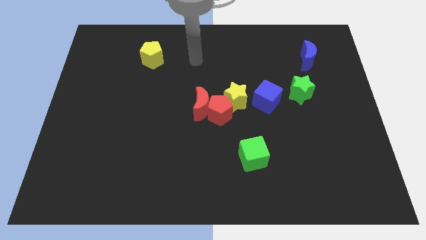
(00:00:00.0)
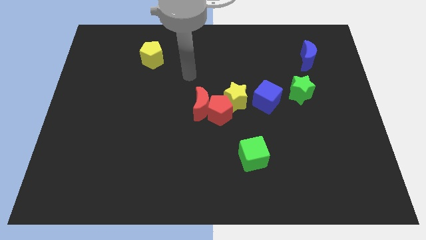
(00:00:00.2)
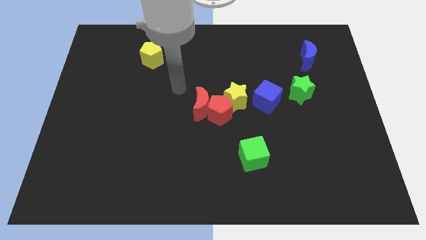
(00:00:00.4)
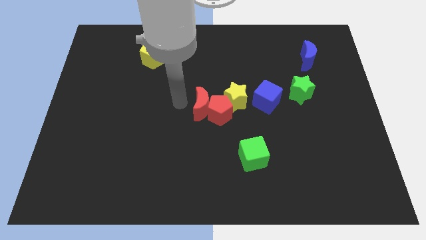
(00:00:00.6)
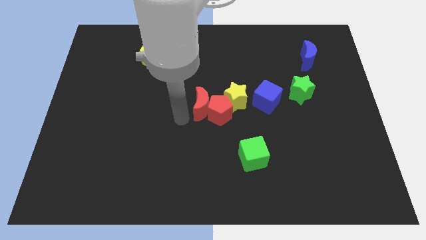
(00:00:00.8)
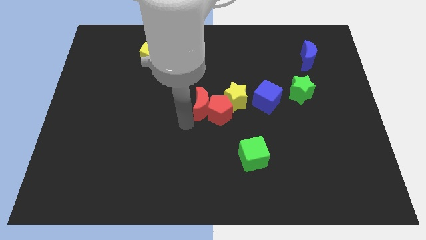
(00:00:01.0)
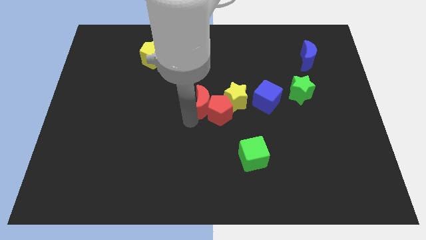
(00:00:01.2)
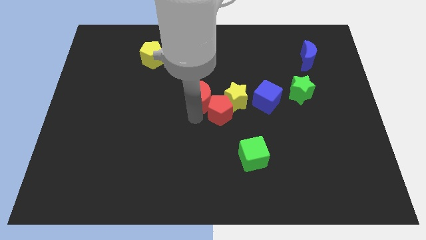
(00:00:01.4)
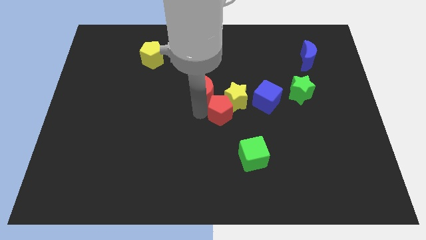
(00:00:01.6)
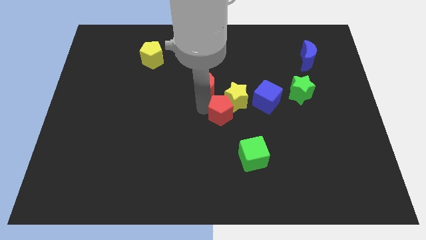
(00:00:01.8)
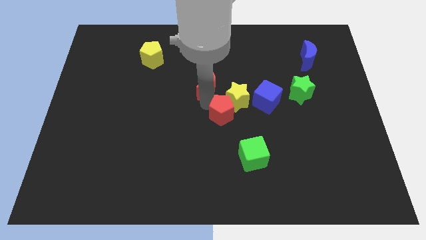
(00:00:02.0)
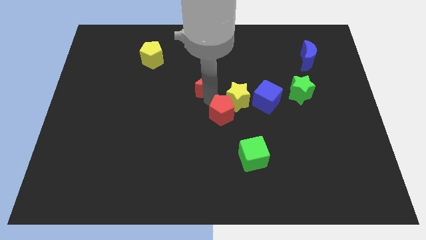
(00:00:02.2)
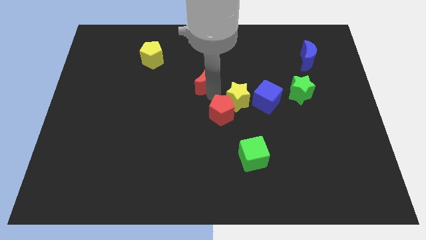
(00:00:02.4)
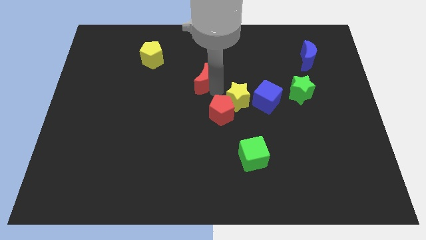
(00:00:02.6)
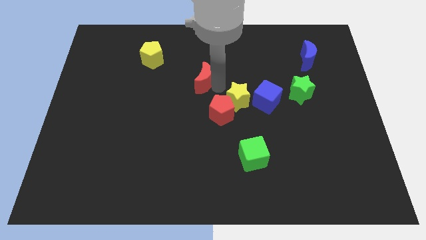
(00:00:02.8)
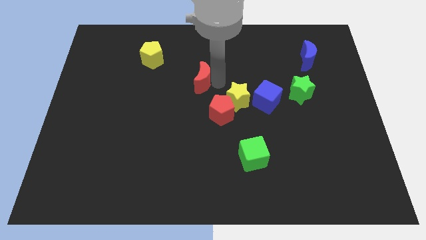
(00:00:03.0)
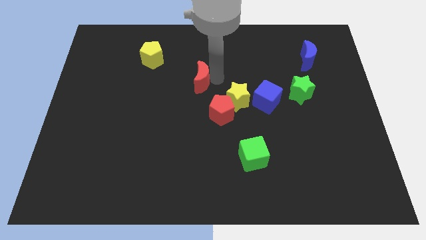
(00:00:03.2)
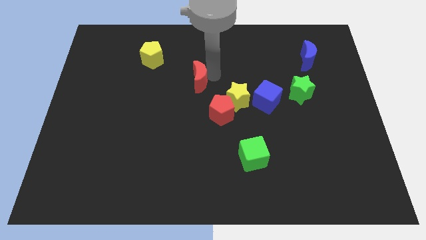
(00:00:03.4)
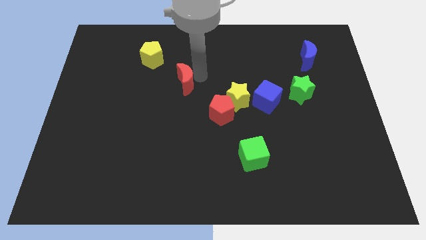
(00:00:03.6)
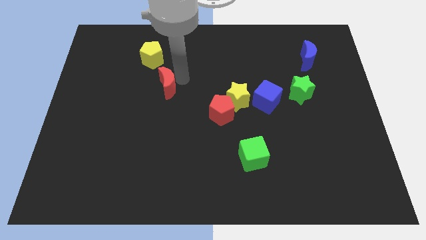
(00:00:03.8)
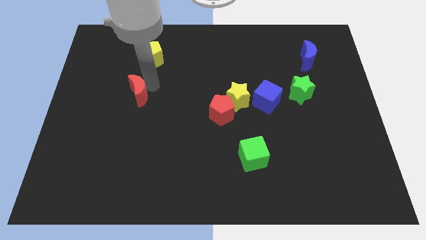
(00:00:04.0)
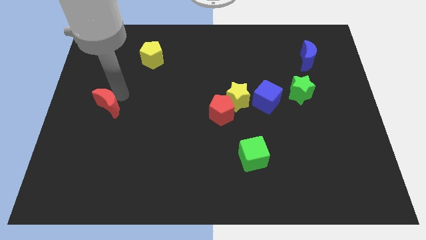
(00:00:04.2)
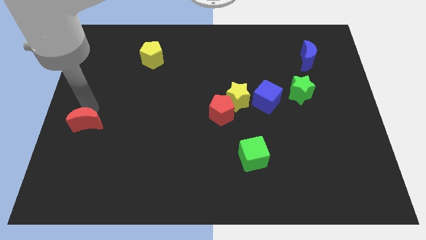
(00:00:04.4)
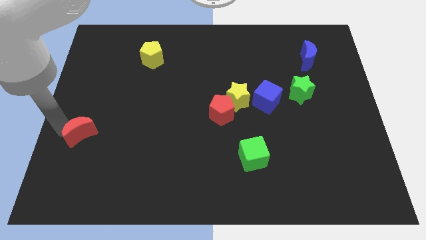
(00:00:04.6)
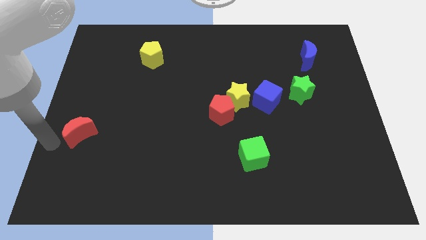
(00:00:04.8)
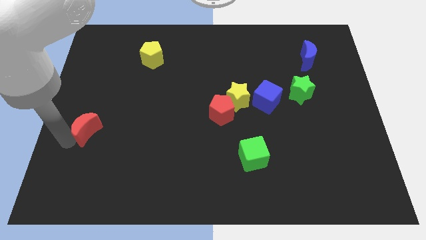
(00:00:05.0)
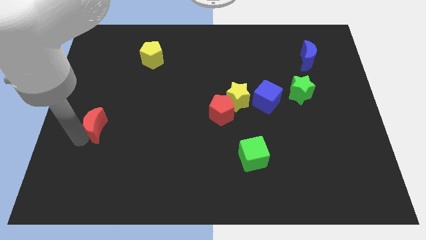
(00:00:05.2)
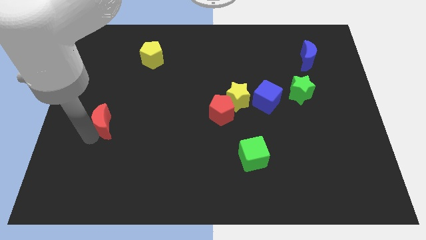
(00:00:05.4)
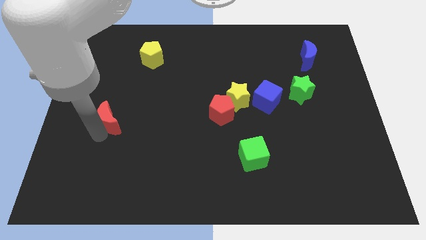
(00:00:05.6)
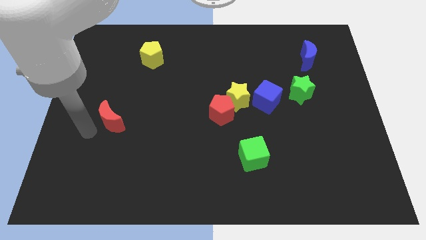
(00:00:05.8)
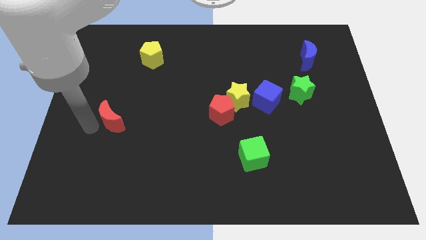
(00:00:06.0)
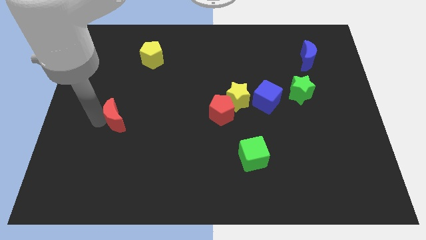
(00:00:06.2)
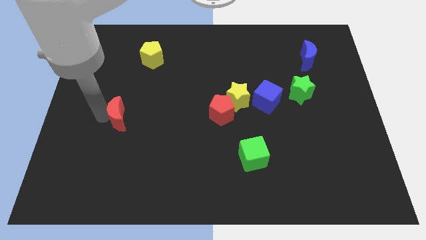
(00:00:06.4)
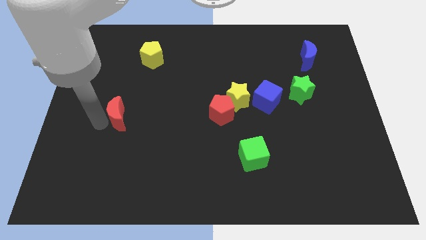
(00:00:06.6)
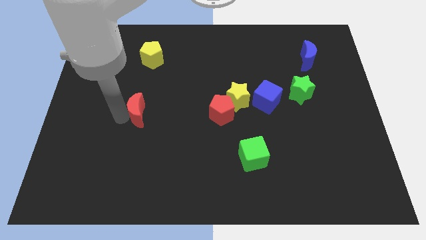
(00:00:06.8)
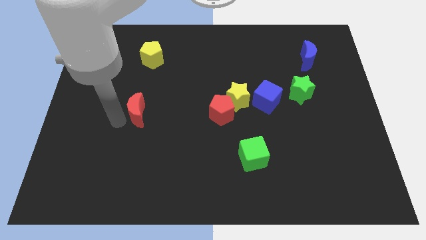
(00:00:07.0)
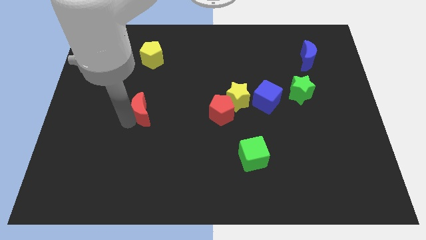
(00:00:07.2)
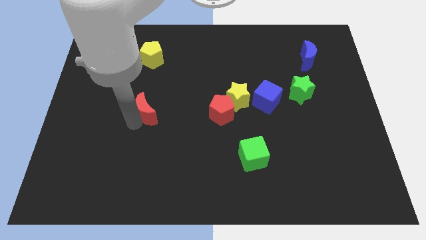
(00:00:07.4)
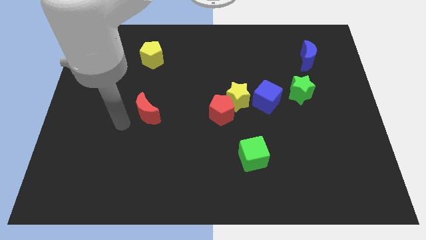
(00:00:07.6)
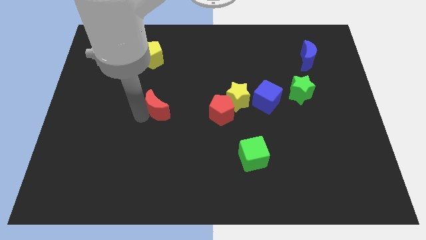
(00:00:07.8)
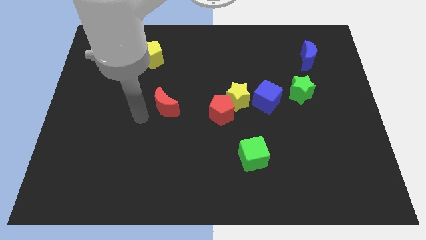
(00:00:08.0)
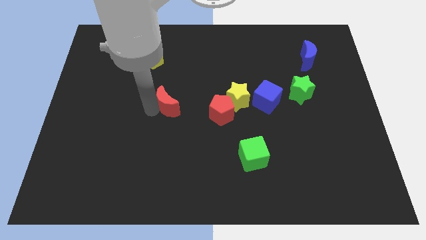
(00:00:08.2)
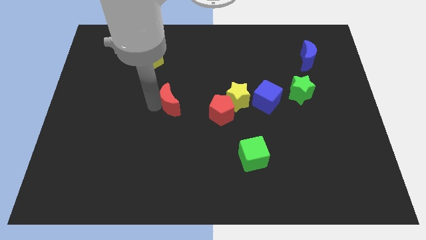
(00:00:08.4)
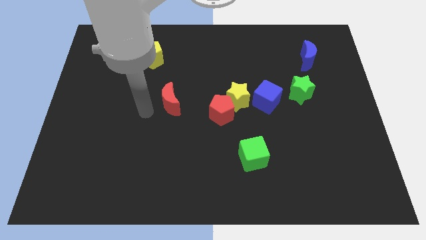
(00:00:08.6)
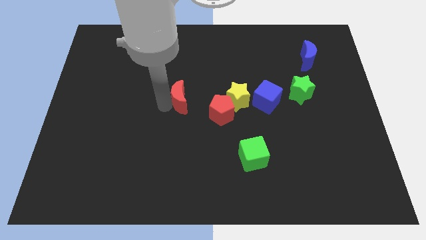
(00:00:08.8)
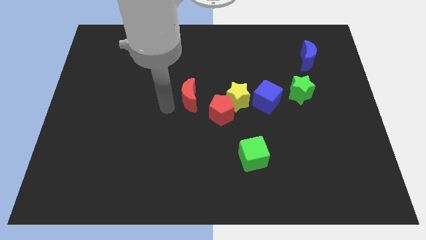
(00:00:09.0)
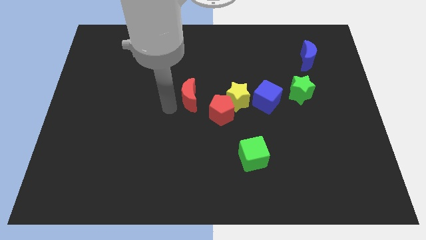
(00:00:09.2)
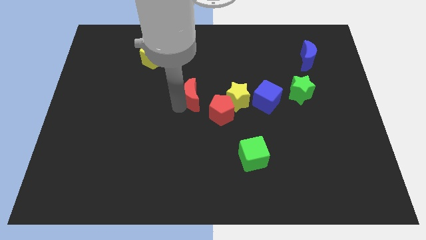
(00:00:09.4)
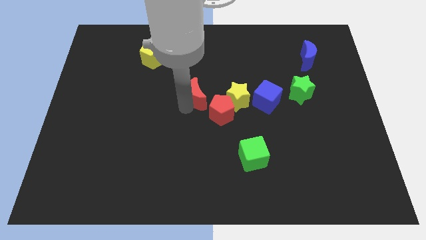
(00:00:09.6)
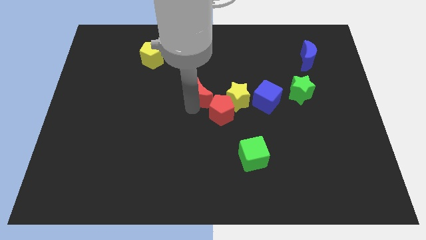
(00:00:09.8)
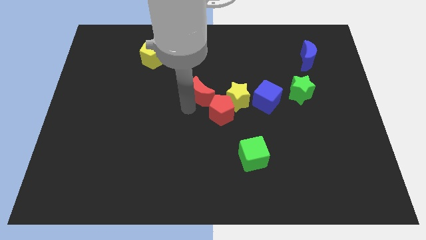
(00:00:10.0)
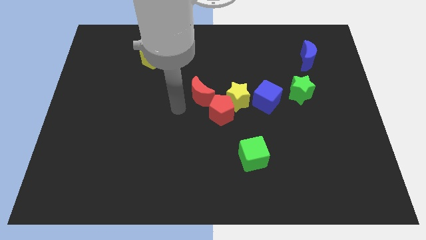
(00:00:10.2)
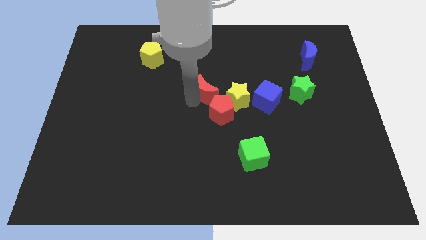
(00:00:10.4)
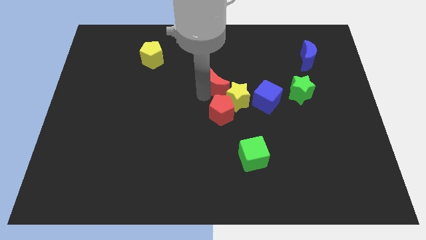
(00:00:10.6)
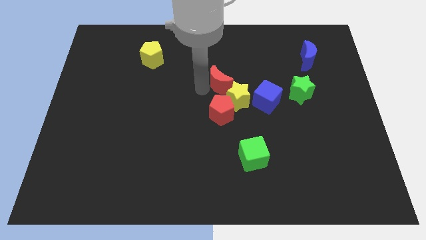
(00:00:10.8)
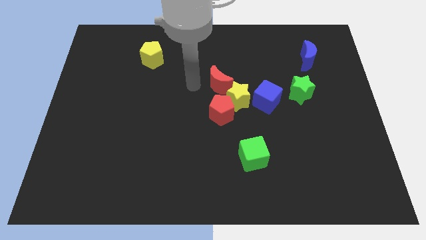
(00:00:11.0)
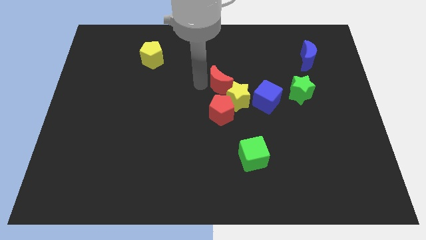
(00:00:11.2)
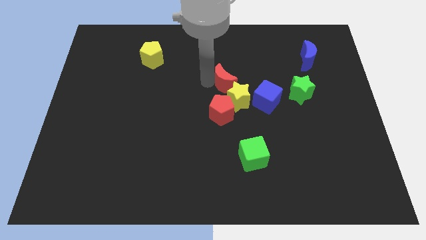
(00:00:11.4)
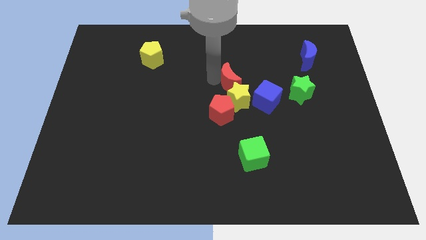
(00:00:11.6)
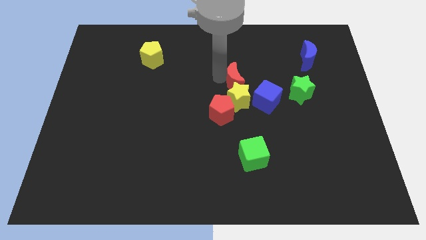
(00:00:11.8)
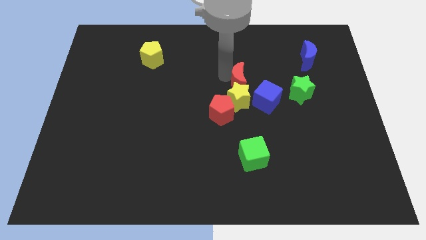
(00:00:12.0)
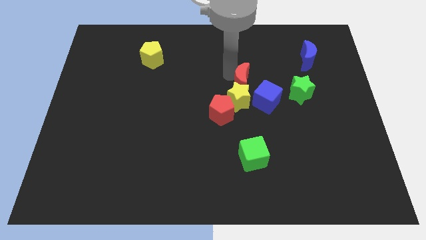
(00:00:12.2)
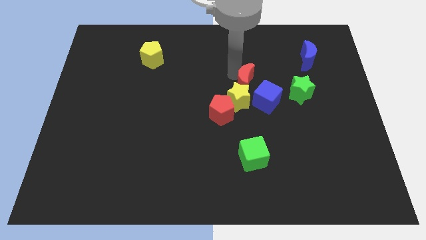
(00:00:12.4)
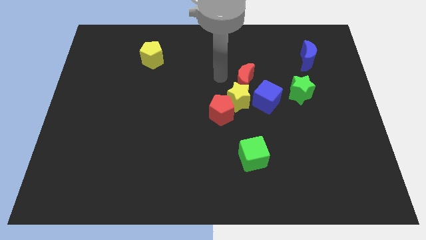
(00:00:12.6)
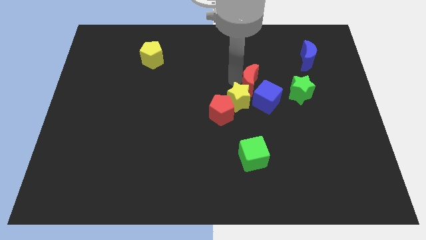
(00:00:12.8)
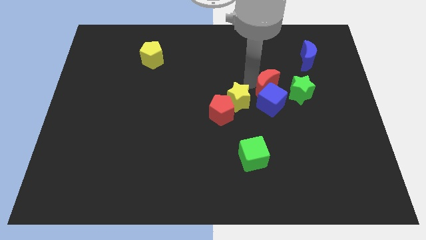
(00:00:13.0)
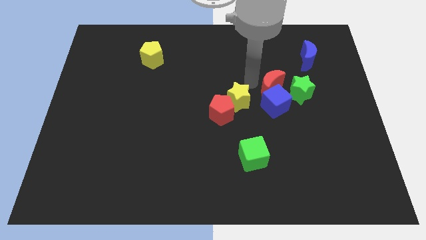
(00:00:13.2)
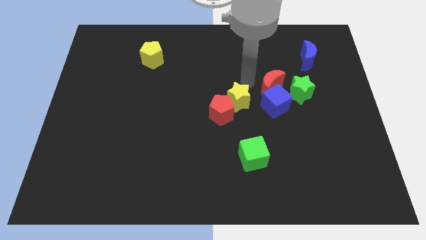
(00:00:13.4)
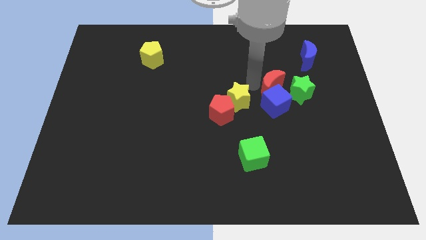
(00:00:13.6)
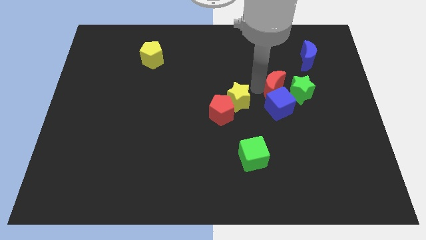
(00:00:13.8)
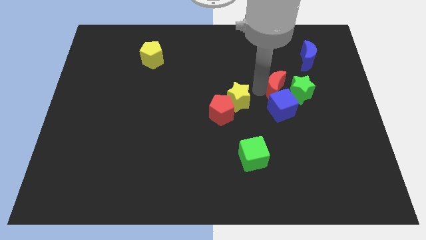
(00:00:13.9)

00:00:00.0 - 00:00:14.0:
move the red moon next to the green star

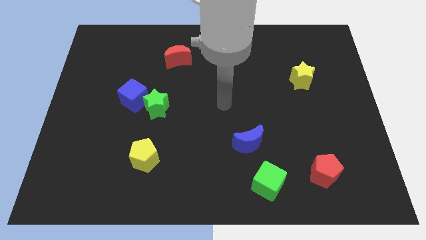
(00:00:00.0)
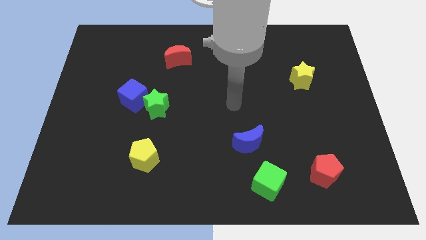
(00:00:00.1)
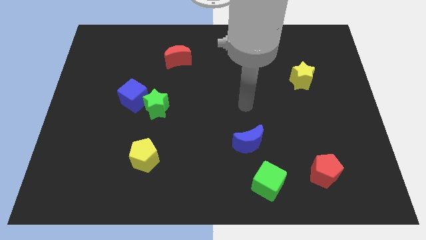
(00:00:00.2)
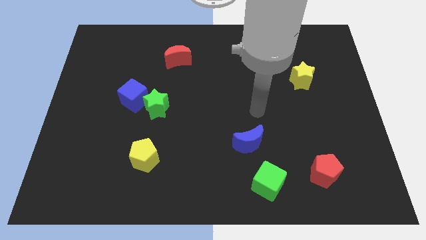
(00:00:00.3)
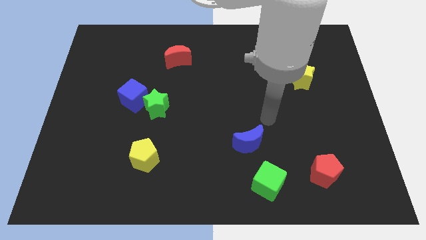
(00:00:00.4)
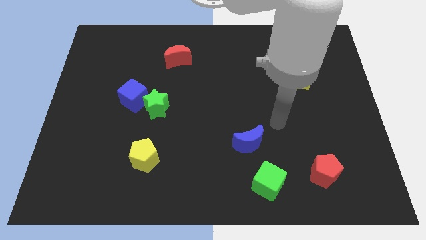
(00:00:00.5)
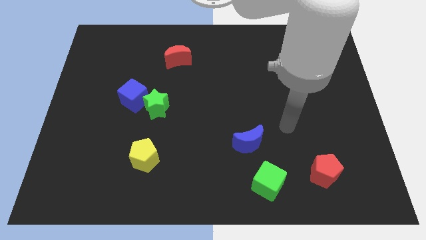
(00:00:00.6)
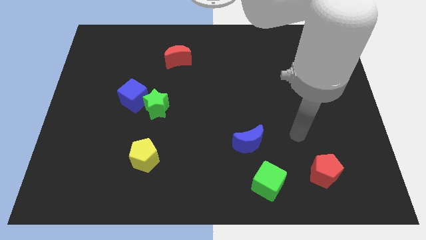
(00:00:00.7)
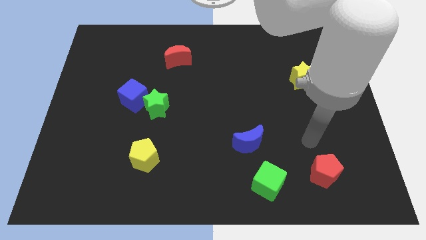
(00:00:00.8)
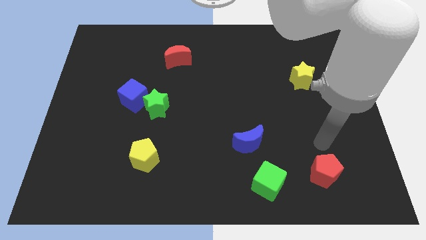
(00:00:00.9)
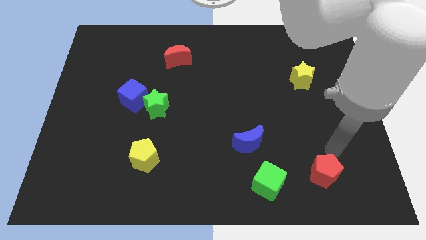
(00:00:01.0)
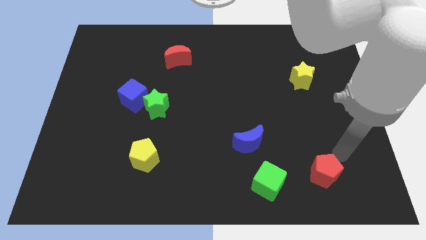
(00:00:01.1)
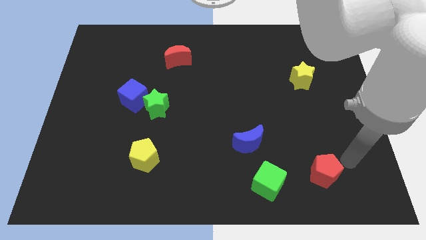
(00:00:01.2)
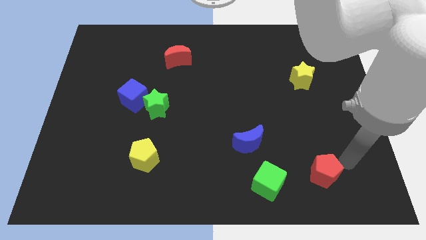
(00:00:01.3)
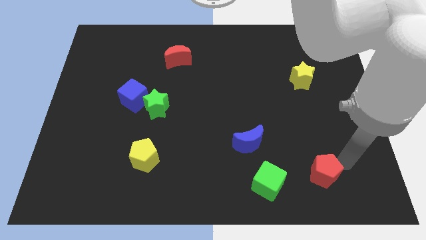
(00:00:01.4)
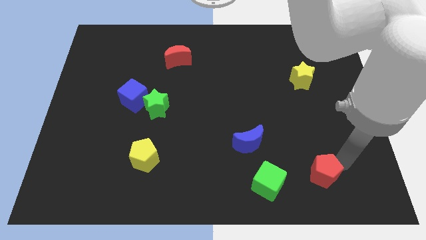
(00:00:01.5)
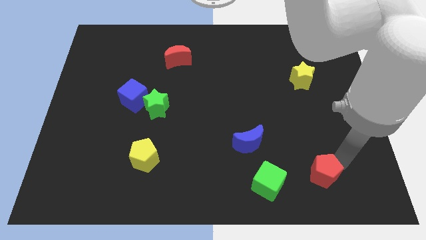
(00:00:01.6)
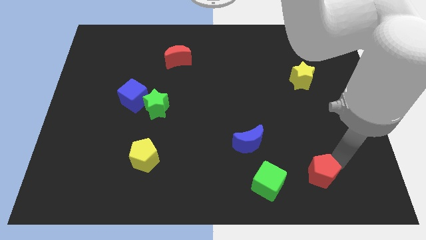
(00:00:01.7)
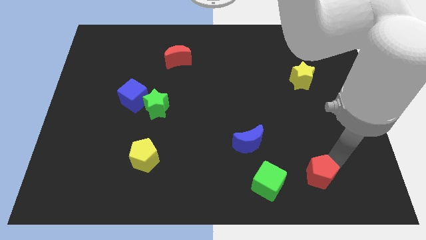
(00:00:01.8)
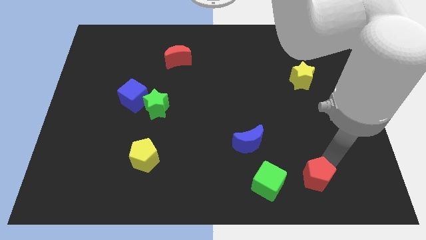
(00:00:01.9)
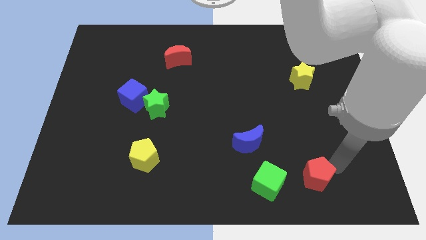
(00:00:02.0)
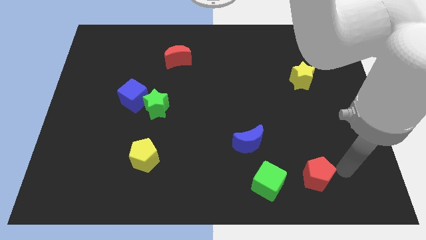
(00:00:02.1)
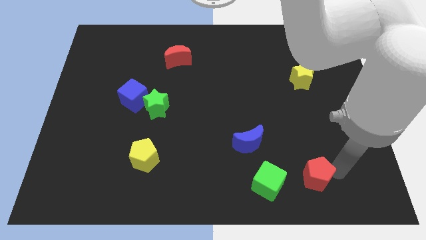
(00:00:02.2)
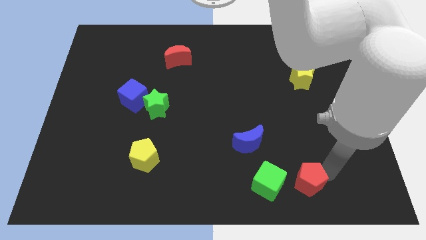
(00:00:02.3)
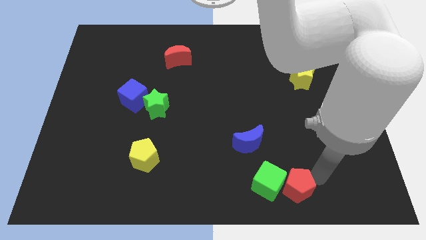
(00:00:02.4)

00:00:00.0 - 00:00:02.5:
move the red pentagon towards the green cube
